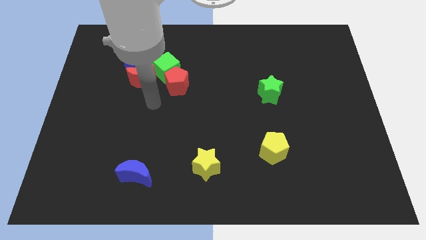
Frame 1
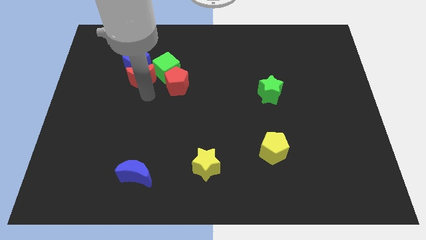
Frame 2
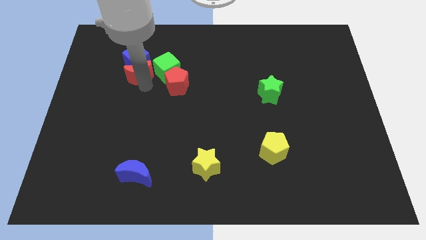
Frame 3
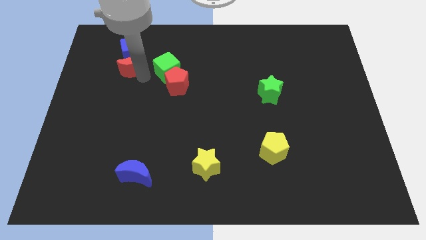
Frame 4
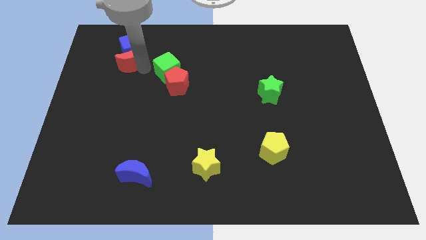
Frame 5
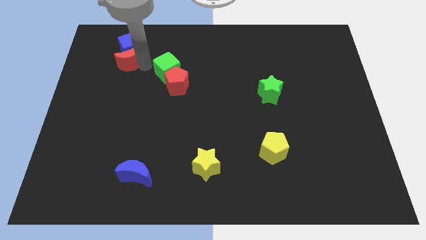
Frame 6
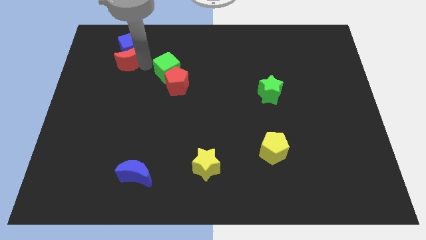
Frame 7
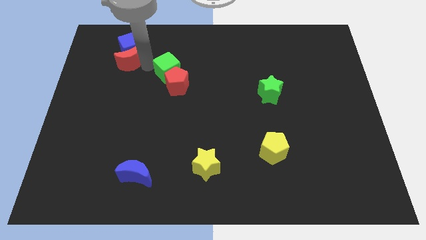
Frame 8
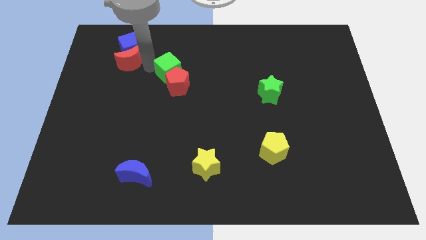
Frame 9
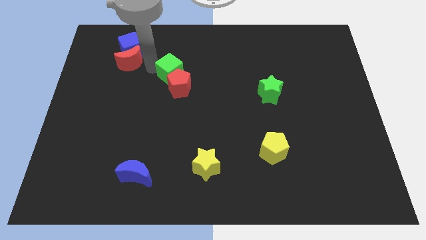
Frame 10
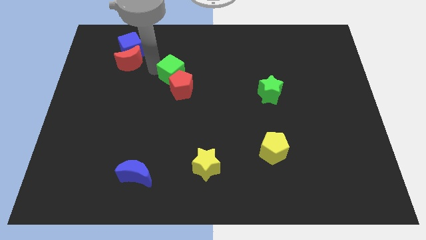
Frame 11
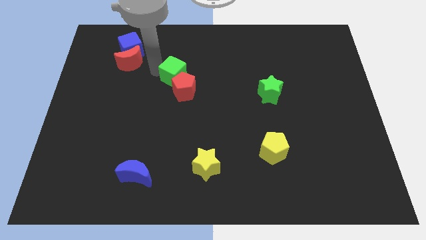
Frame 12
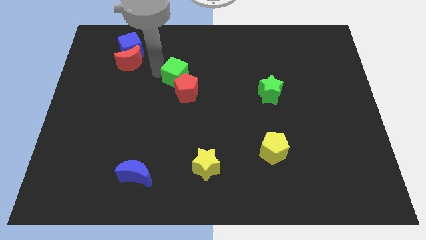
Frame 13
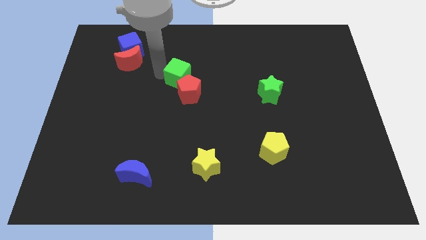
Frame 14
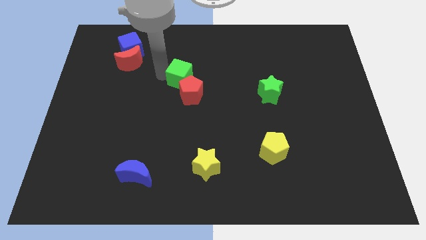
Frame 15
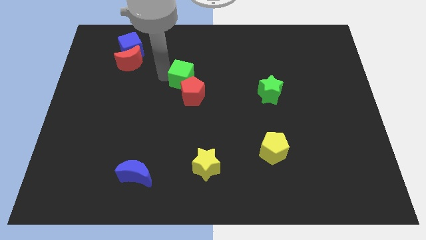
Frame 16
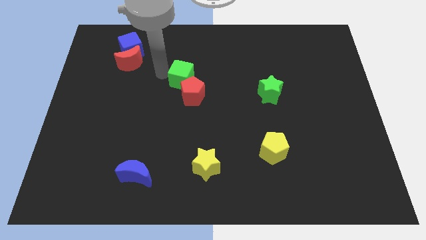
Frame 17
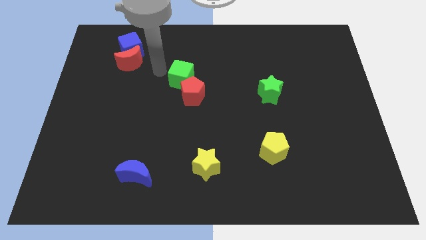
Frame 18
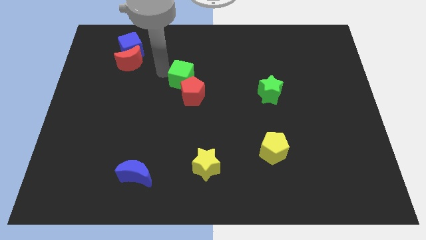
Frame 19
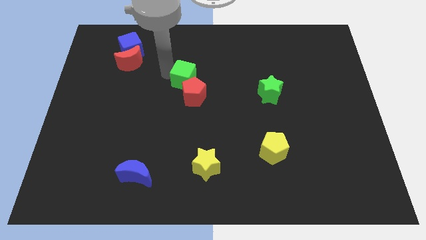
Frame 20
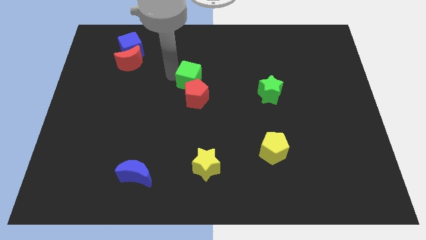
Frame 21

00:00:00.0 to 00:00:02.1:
pull the green cube apart from the red pentagon, red moon, and blue cube

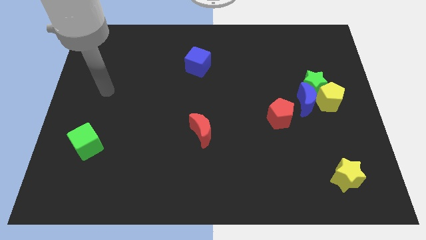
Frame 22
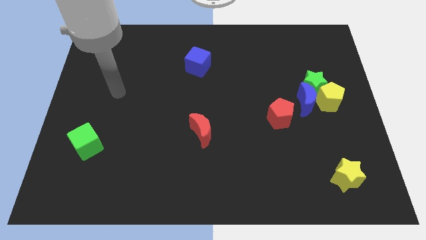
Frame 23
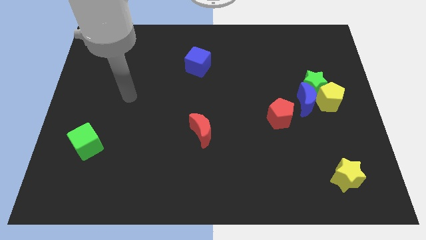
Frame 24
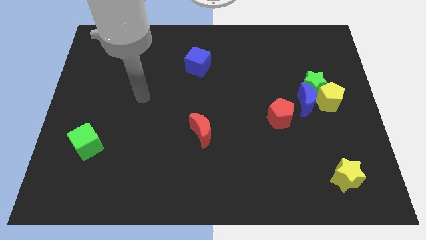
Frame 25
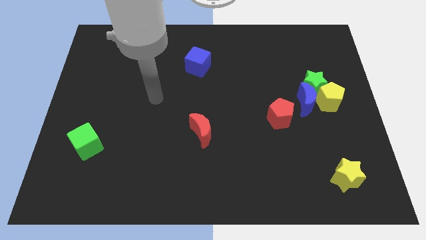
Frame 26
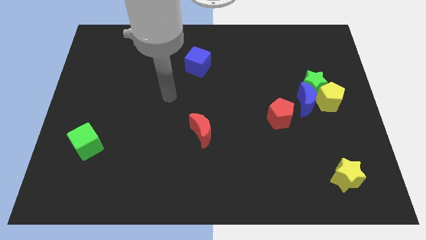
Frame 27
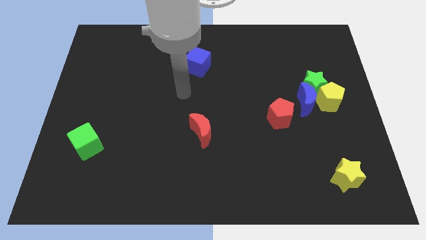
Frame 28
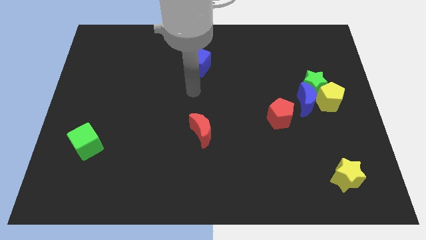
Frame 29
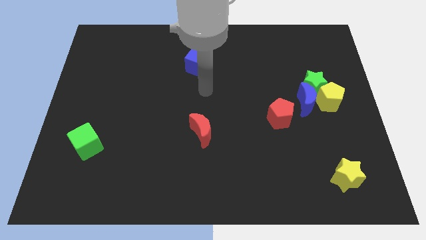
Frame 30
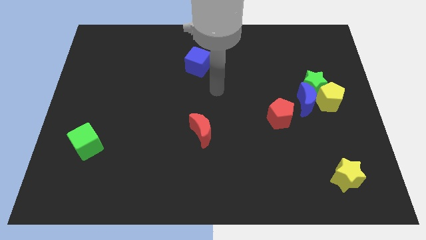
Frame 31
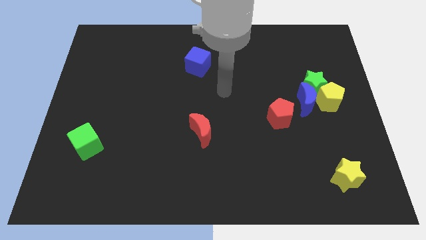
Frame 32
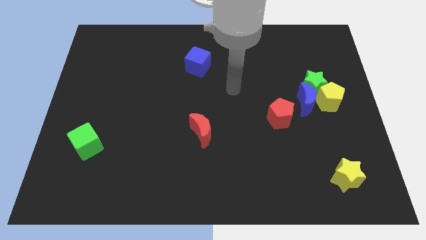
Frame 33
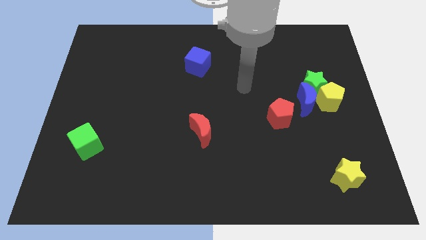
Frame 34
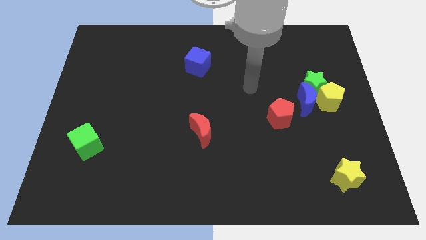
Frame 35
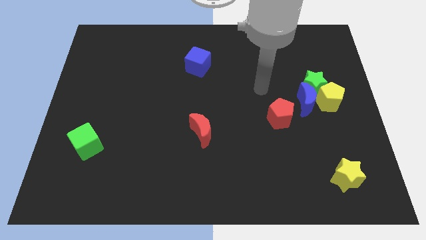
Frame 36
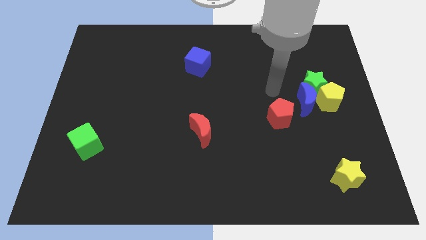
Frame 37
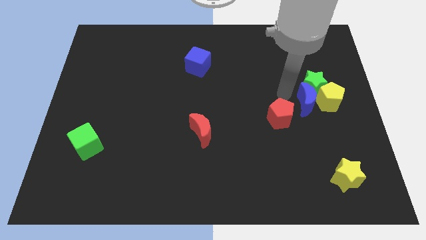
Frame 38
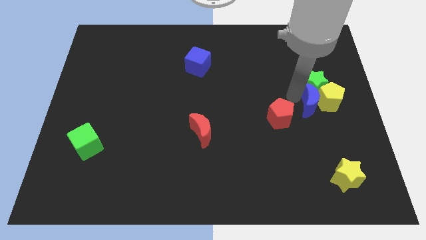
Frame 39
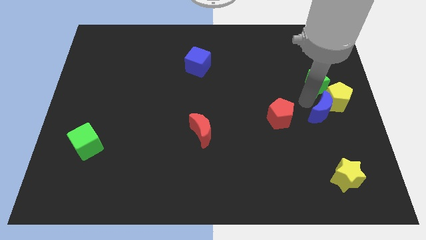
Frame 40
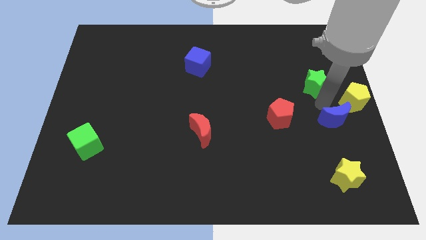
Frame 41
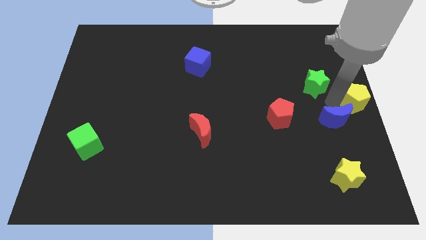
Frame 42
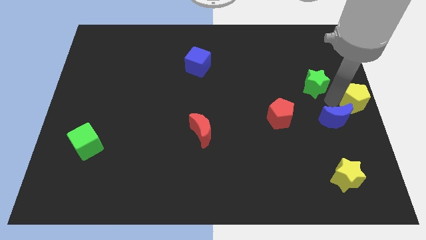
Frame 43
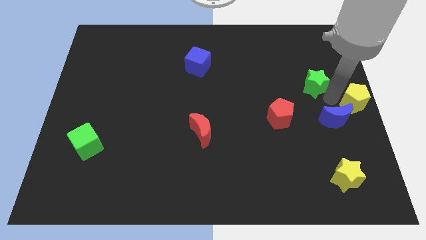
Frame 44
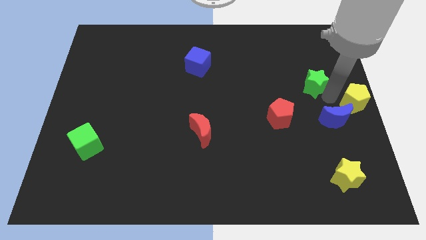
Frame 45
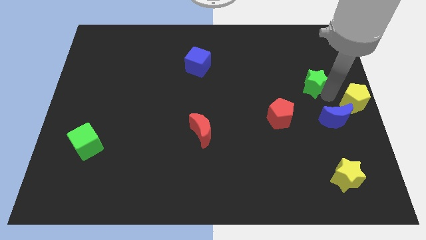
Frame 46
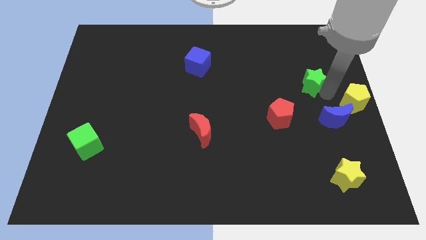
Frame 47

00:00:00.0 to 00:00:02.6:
separate the green star from the blue moon and yellow pentagon

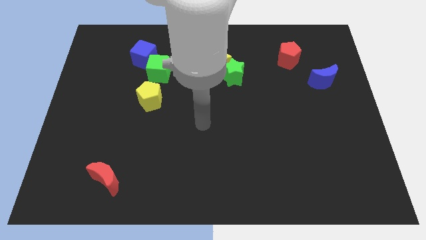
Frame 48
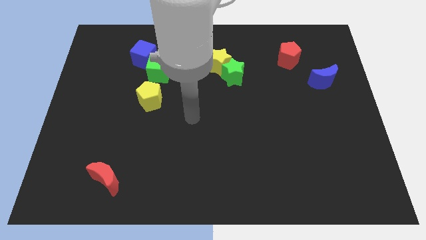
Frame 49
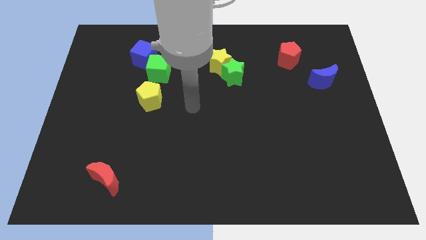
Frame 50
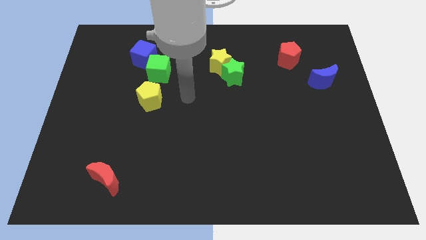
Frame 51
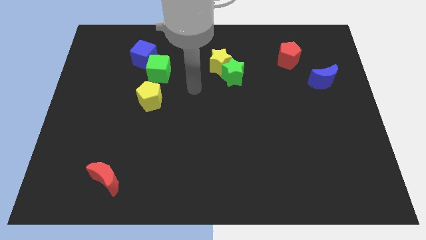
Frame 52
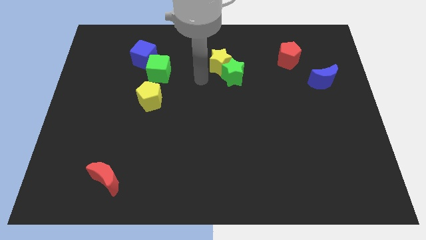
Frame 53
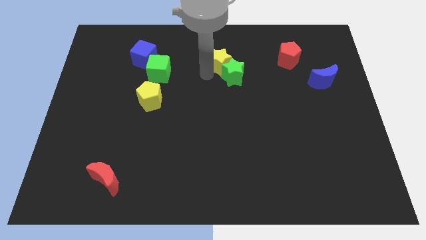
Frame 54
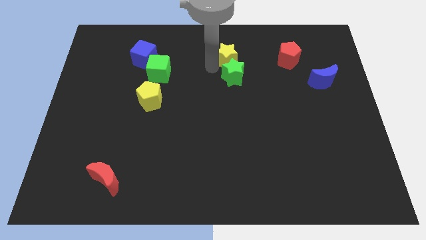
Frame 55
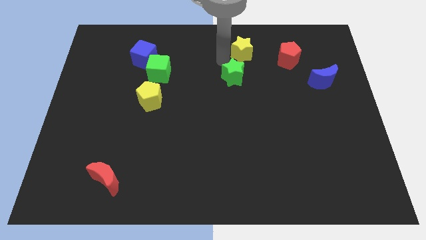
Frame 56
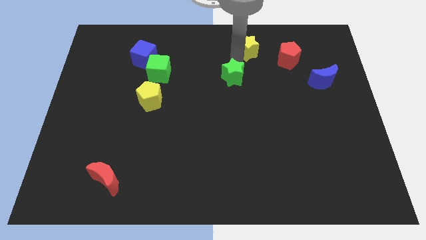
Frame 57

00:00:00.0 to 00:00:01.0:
move the green star away from the yellow star

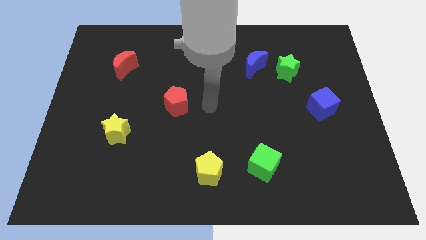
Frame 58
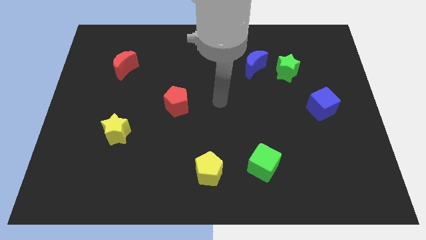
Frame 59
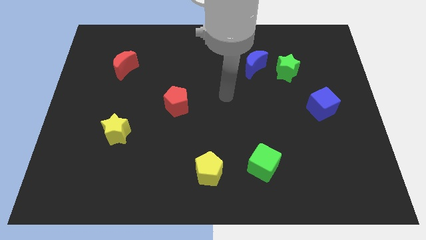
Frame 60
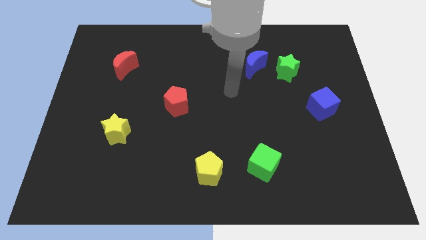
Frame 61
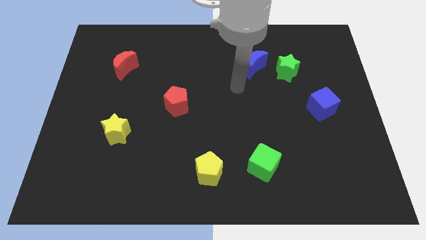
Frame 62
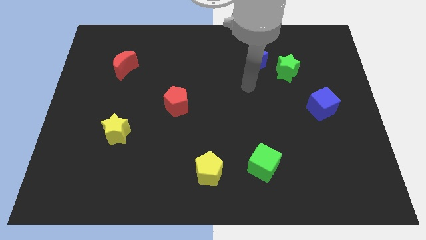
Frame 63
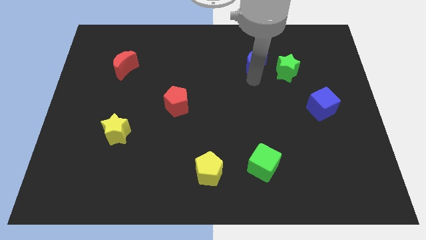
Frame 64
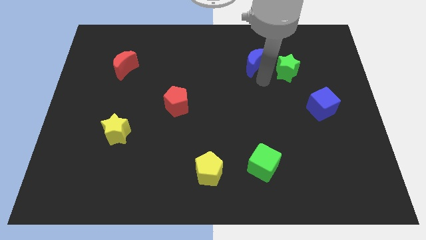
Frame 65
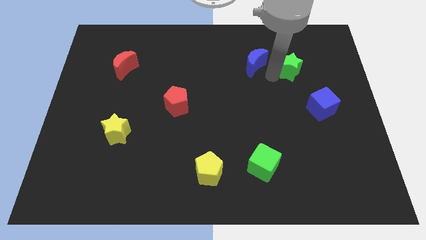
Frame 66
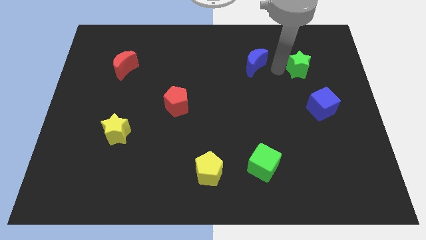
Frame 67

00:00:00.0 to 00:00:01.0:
separate the blue moon from the green star

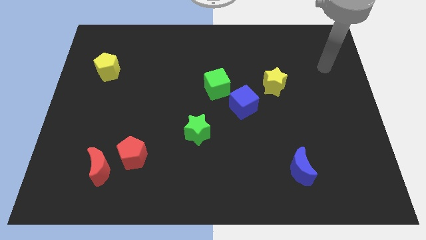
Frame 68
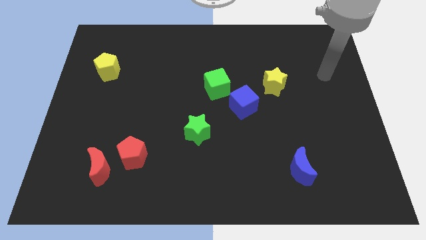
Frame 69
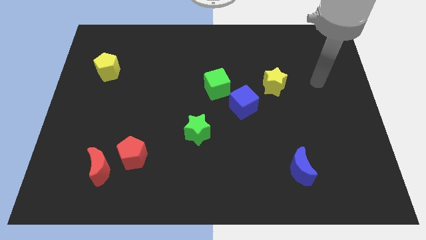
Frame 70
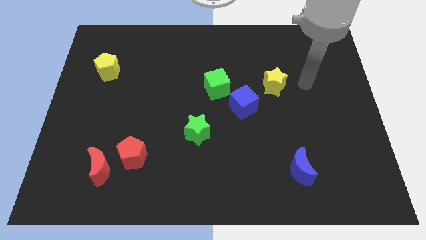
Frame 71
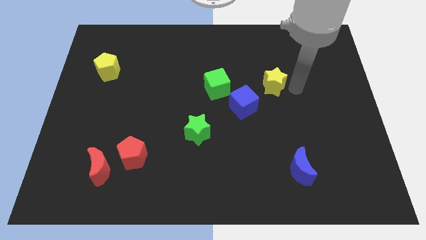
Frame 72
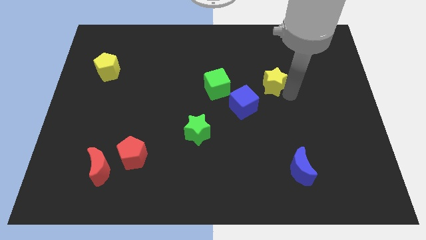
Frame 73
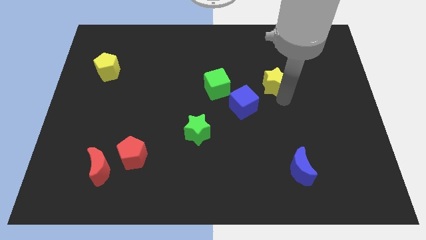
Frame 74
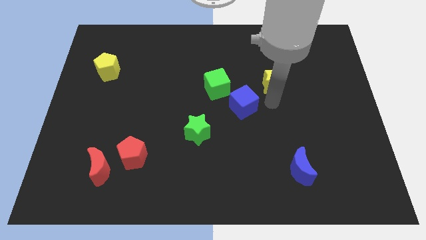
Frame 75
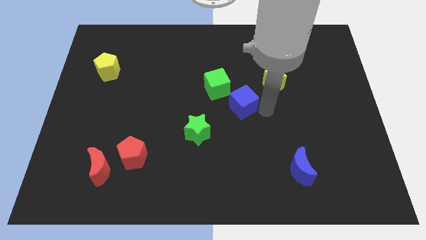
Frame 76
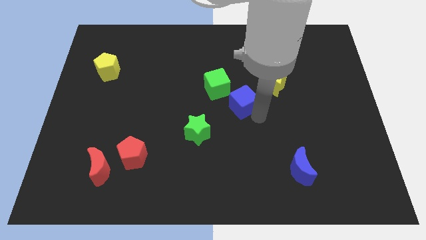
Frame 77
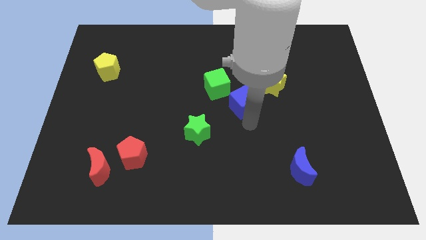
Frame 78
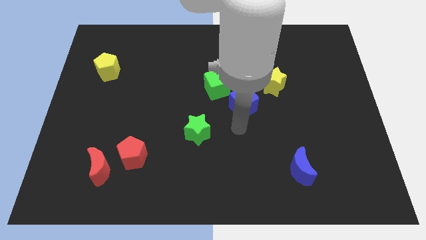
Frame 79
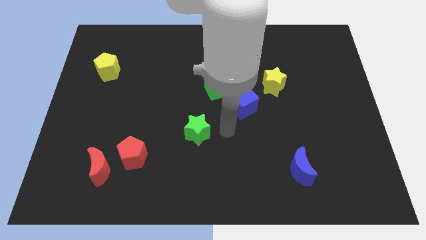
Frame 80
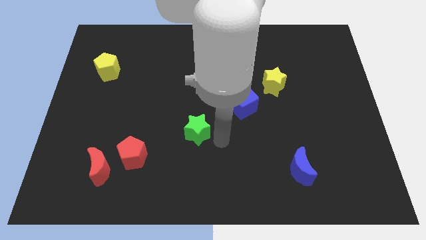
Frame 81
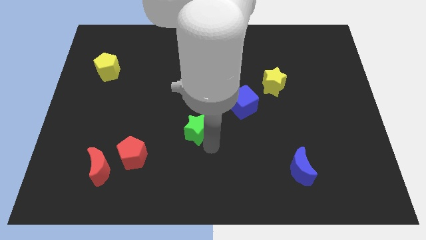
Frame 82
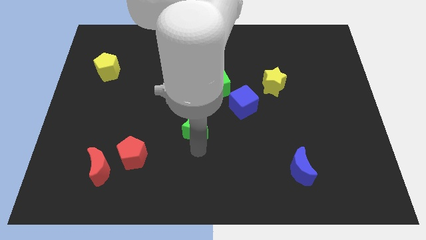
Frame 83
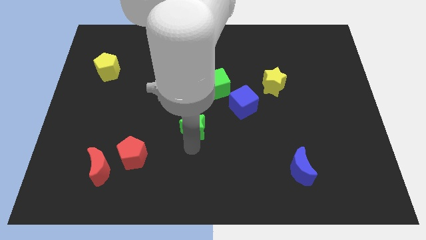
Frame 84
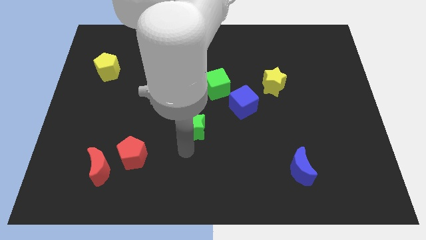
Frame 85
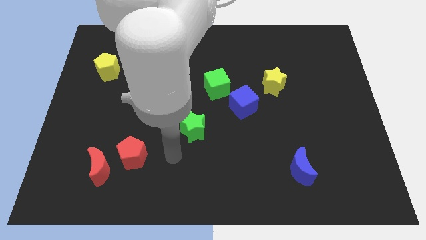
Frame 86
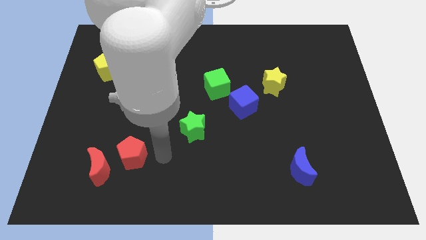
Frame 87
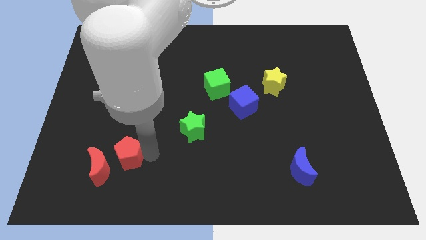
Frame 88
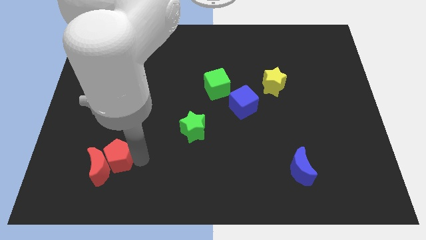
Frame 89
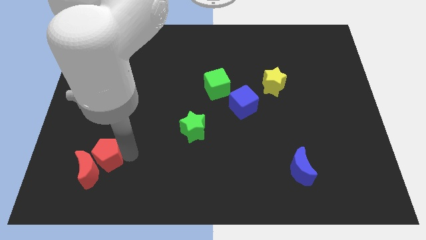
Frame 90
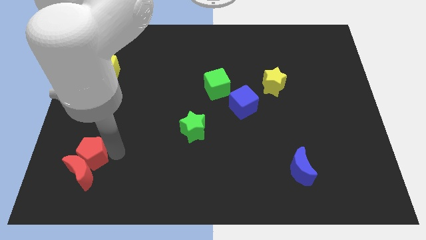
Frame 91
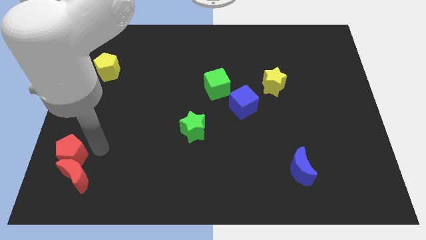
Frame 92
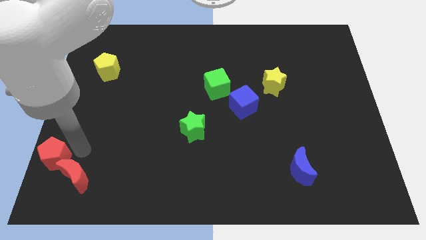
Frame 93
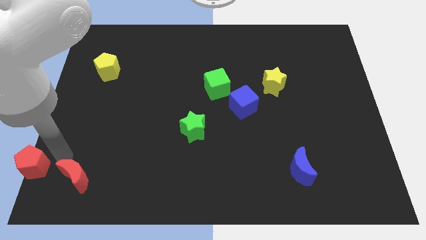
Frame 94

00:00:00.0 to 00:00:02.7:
pull the red moon apart from the red pentagon
